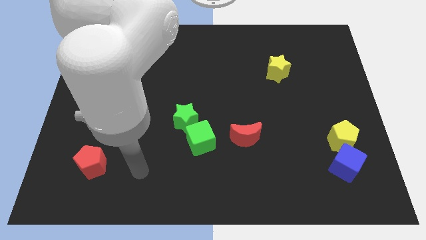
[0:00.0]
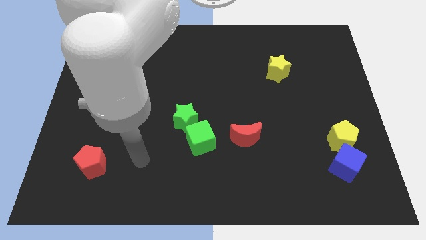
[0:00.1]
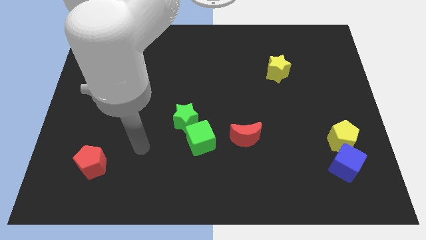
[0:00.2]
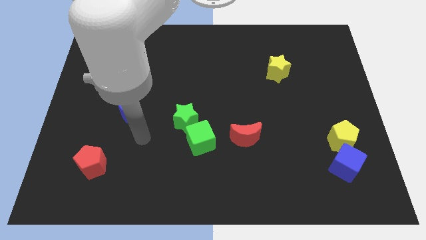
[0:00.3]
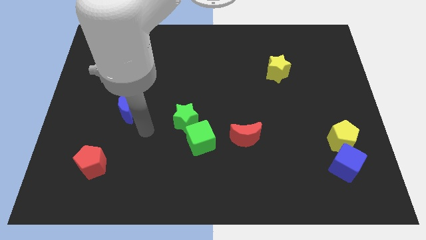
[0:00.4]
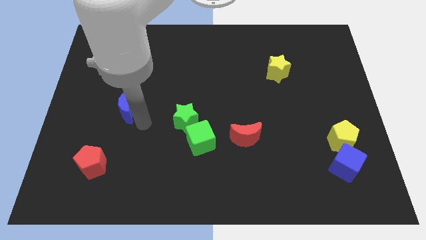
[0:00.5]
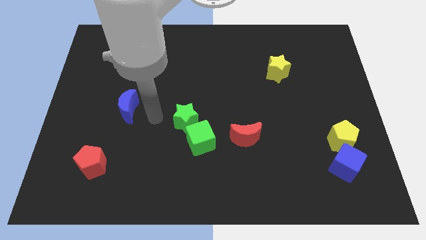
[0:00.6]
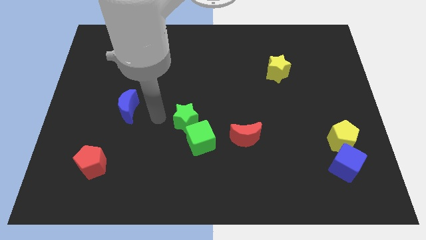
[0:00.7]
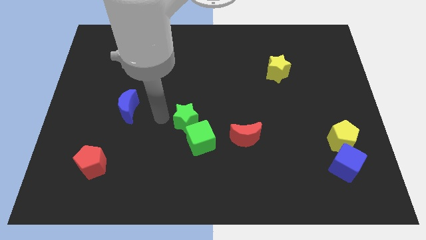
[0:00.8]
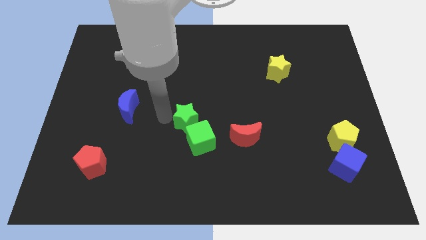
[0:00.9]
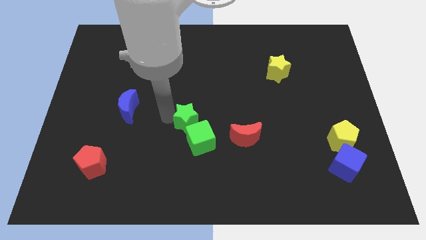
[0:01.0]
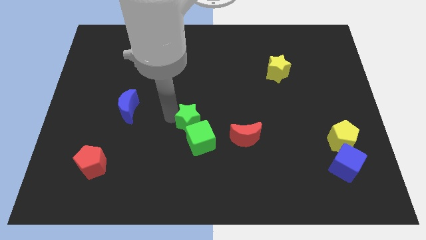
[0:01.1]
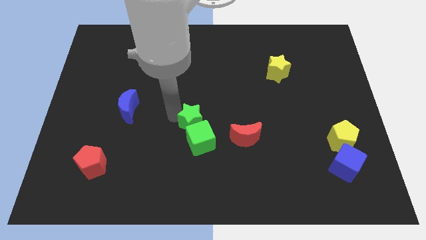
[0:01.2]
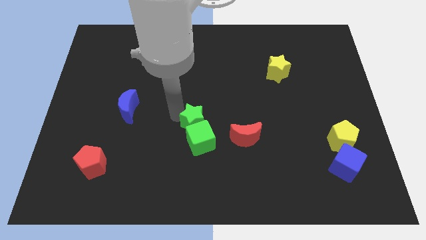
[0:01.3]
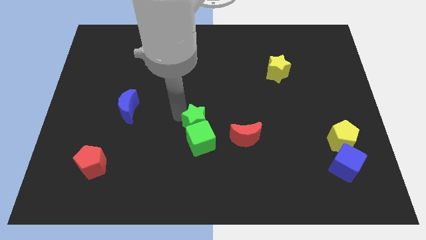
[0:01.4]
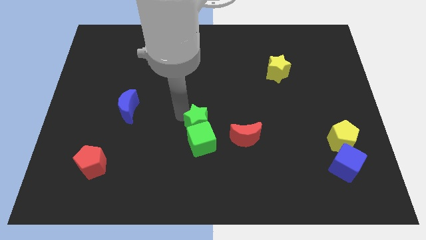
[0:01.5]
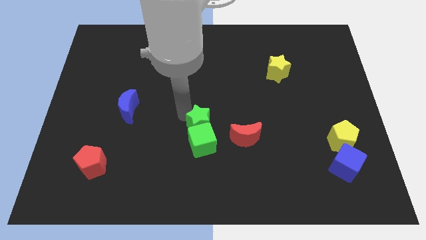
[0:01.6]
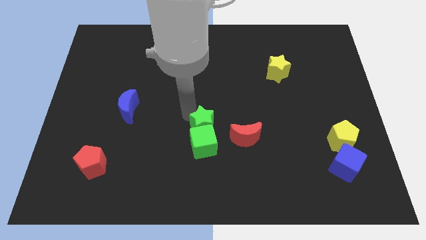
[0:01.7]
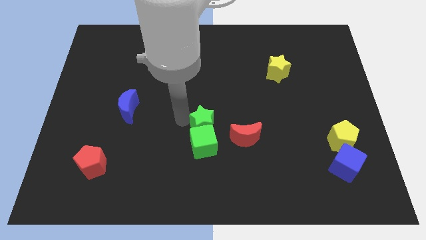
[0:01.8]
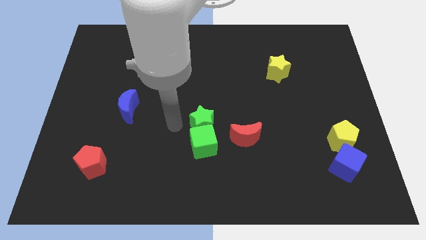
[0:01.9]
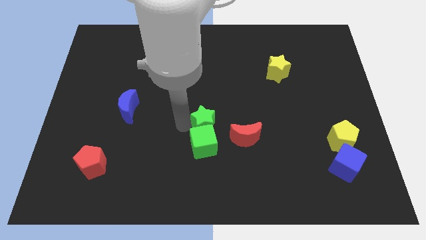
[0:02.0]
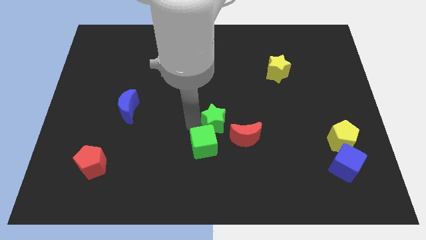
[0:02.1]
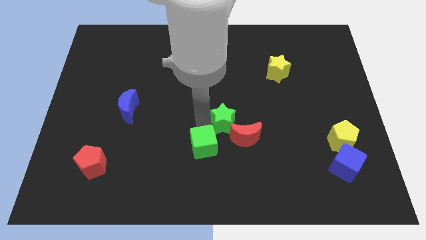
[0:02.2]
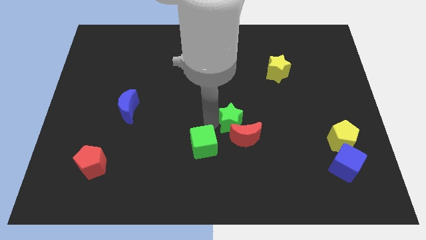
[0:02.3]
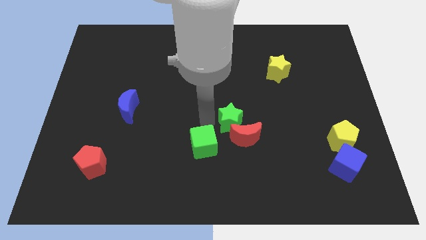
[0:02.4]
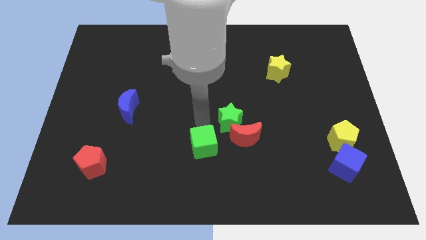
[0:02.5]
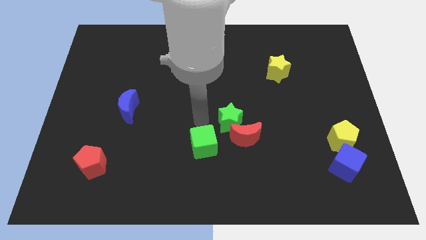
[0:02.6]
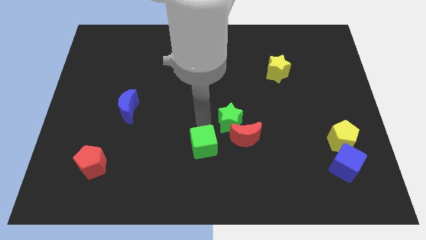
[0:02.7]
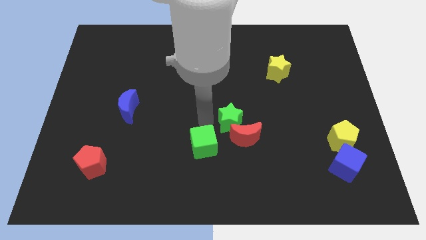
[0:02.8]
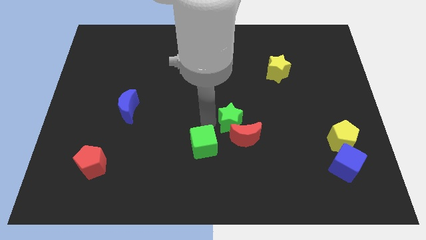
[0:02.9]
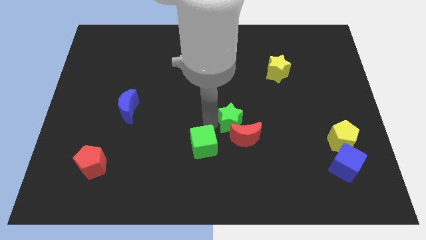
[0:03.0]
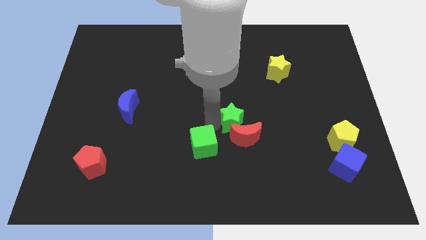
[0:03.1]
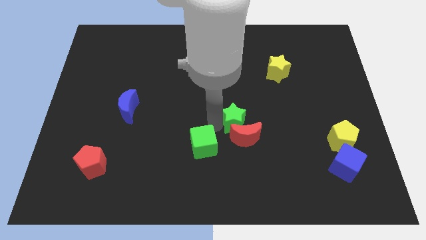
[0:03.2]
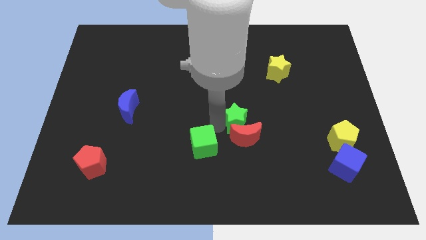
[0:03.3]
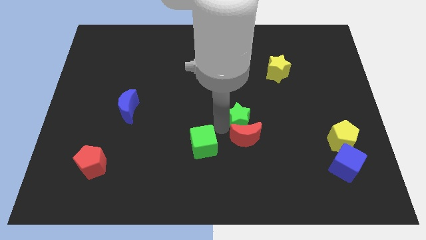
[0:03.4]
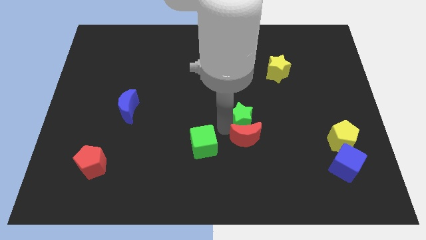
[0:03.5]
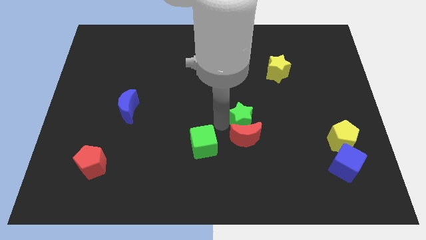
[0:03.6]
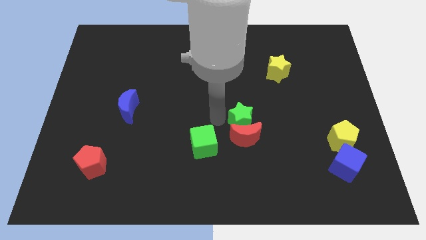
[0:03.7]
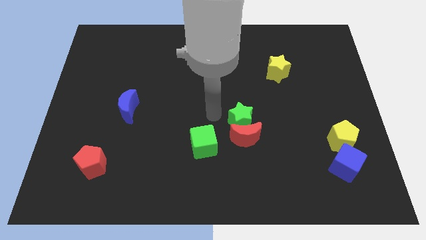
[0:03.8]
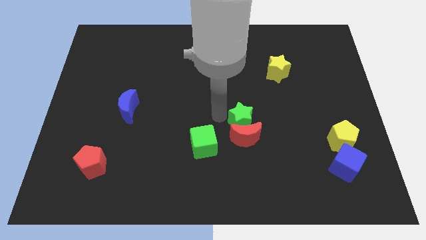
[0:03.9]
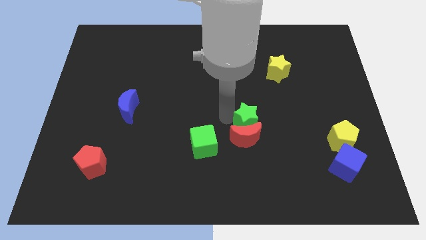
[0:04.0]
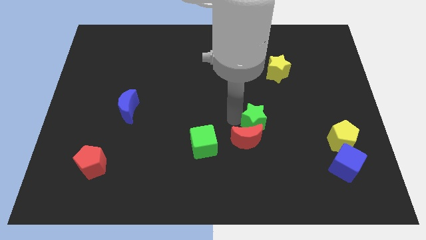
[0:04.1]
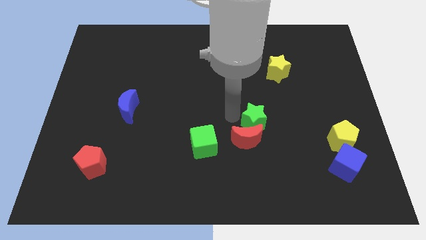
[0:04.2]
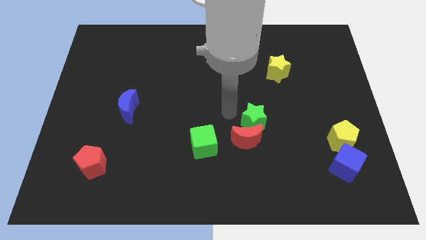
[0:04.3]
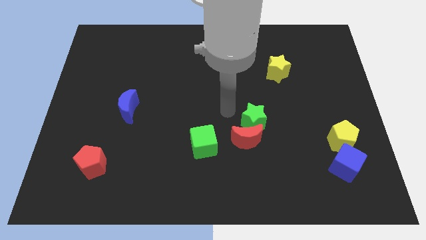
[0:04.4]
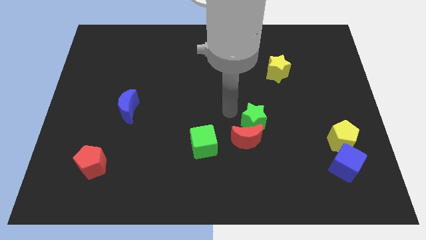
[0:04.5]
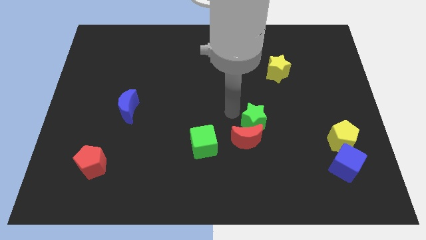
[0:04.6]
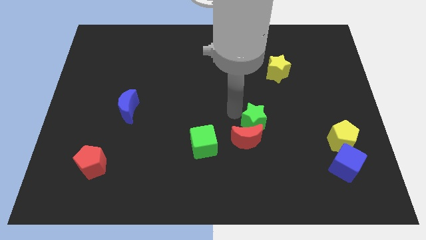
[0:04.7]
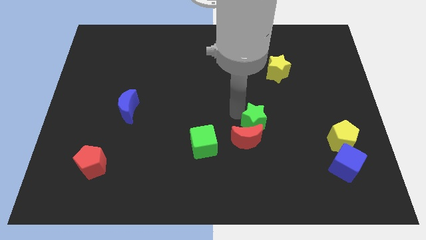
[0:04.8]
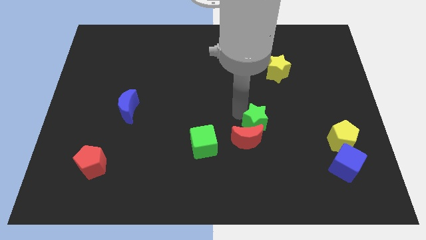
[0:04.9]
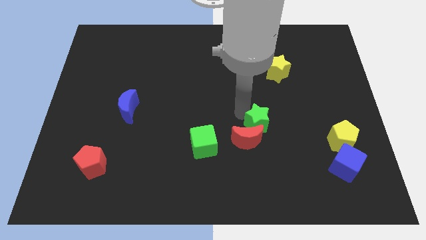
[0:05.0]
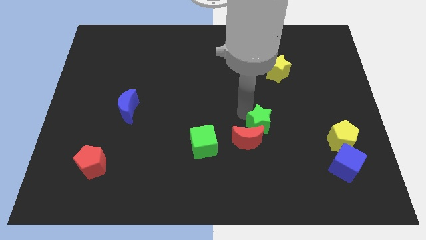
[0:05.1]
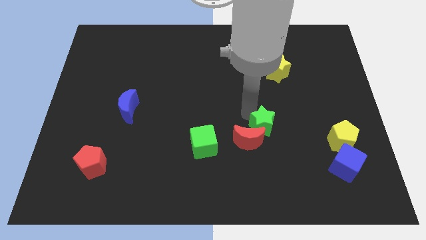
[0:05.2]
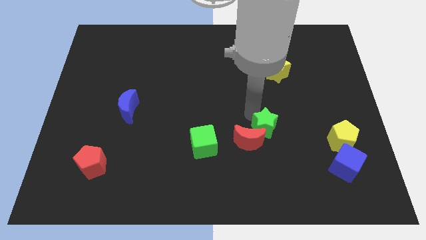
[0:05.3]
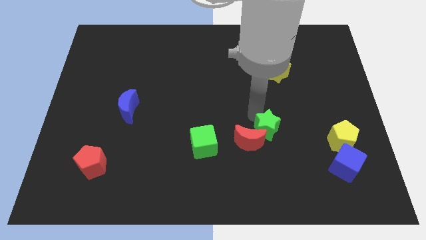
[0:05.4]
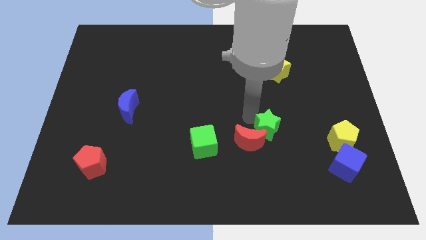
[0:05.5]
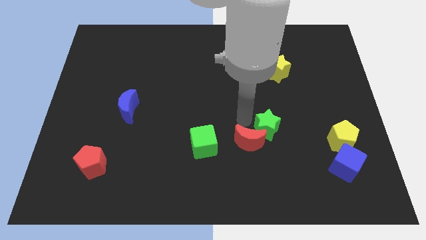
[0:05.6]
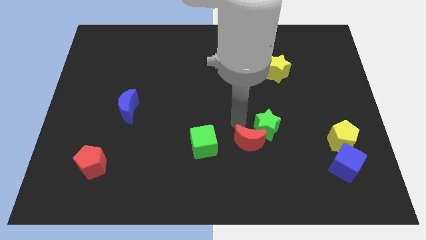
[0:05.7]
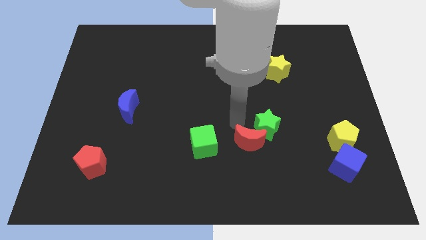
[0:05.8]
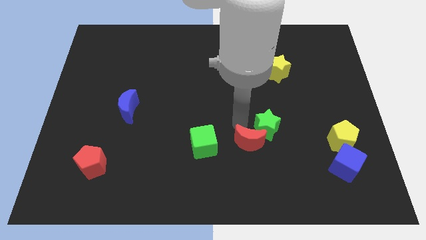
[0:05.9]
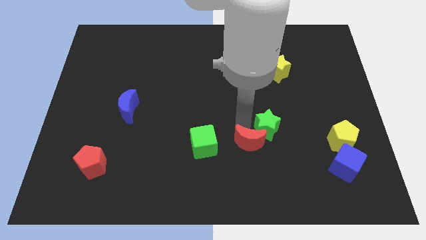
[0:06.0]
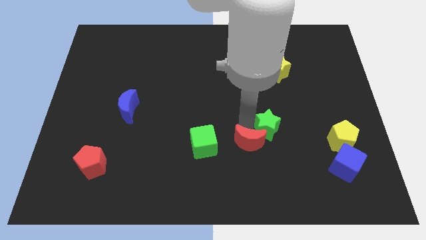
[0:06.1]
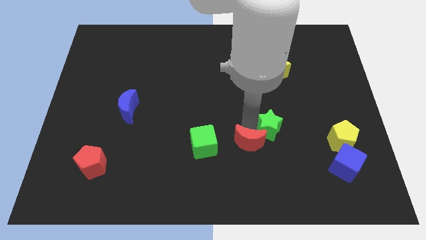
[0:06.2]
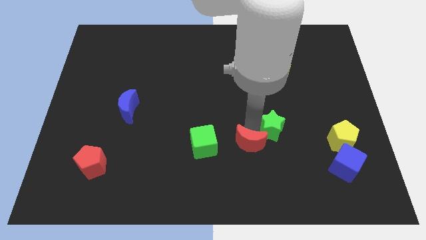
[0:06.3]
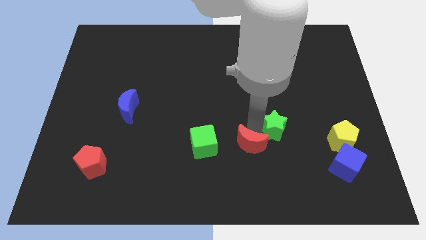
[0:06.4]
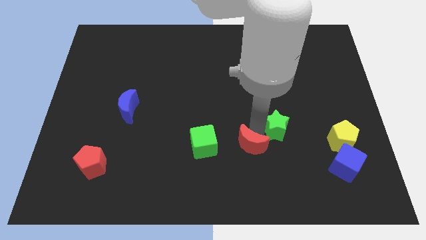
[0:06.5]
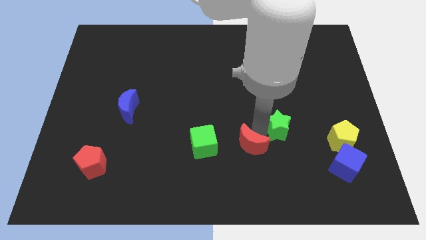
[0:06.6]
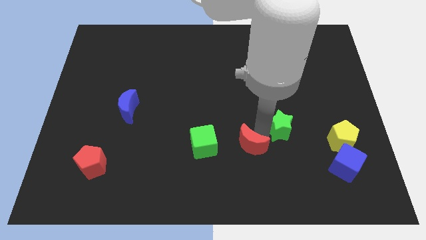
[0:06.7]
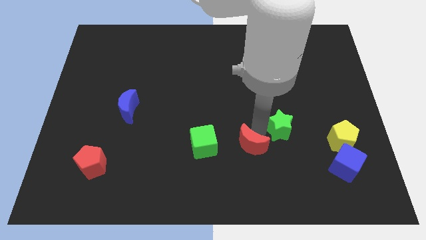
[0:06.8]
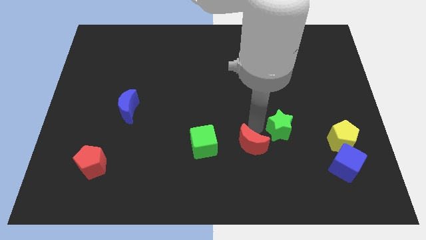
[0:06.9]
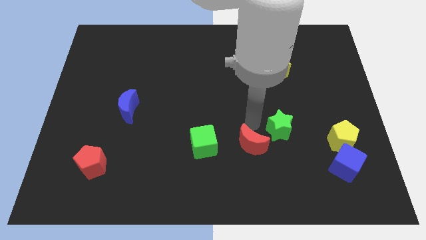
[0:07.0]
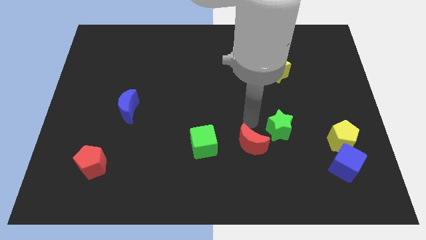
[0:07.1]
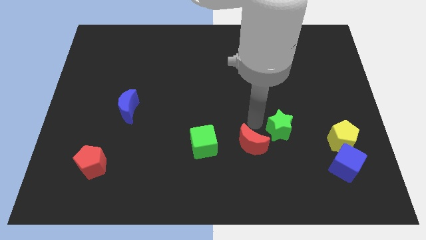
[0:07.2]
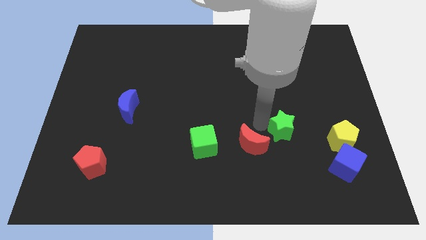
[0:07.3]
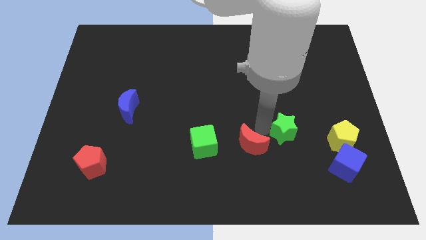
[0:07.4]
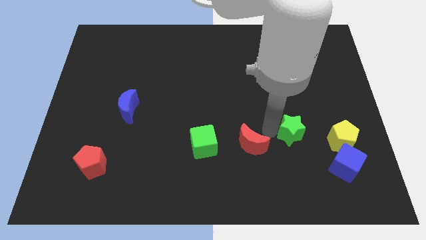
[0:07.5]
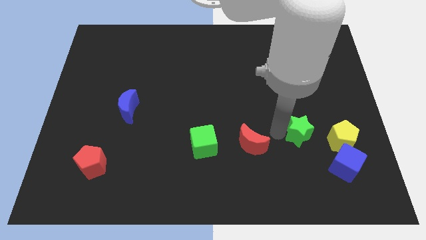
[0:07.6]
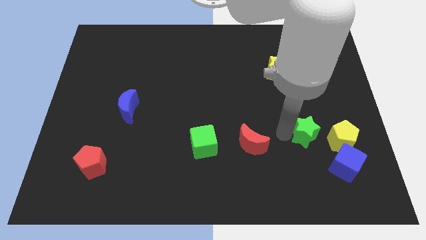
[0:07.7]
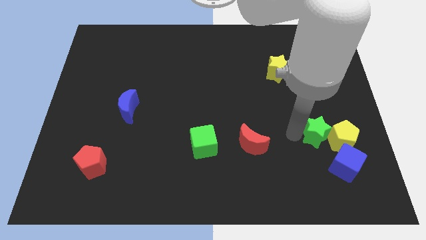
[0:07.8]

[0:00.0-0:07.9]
push the green star to the yellow pentagon
